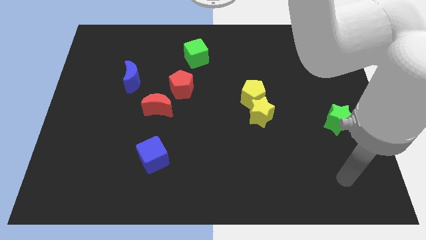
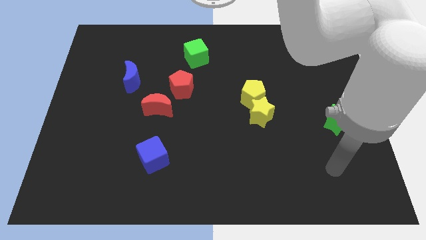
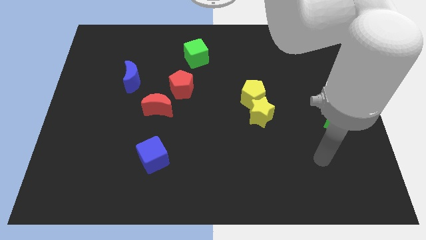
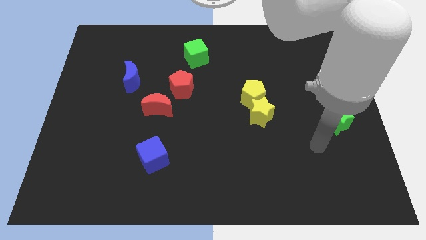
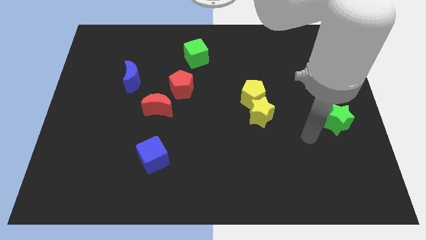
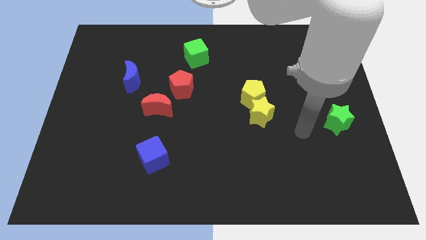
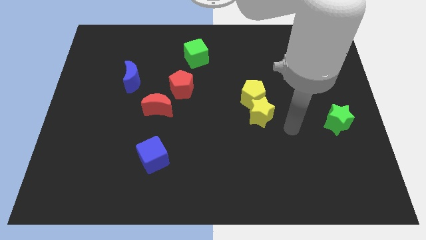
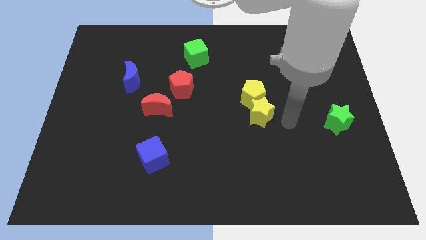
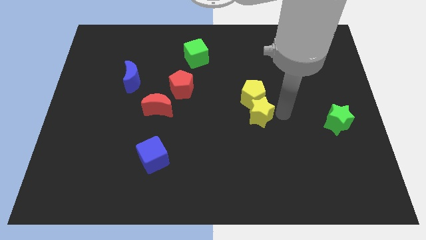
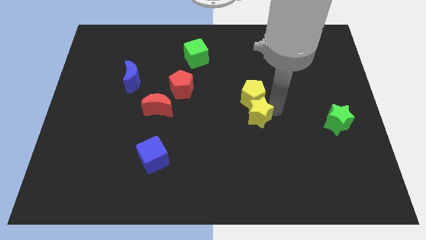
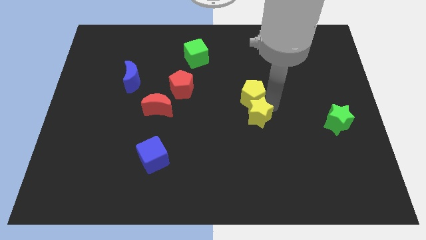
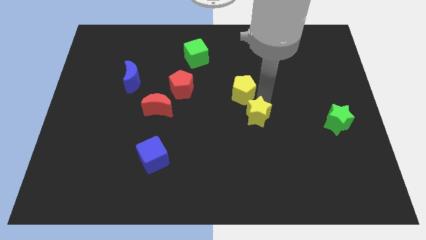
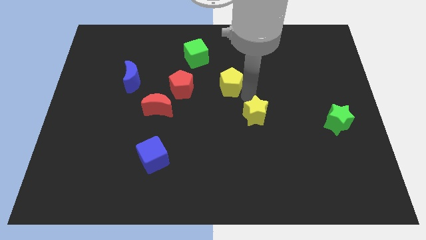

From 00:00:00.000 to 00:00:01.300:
move the yellow star away from the yellow pentagon

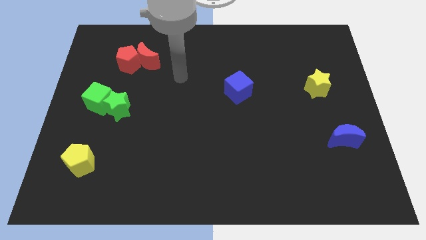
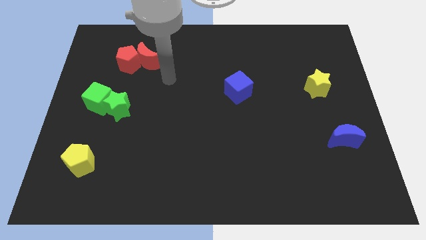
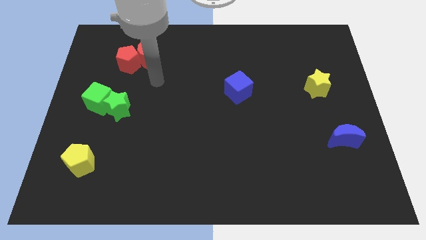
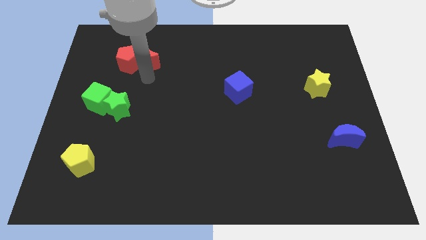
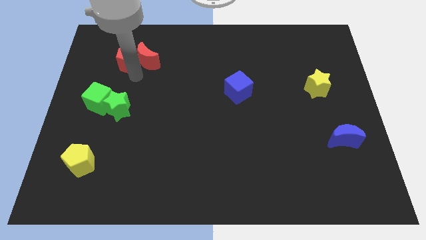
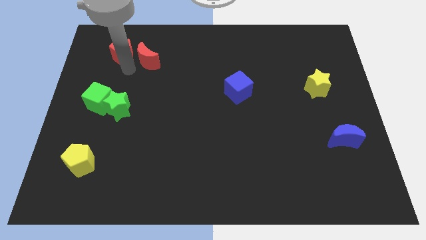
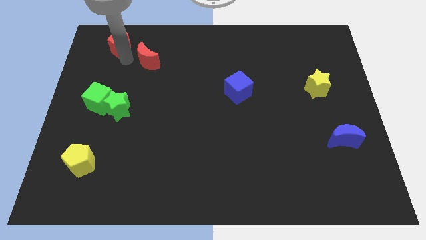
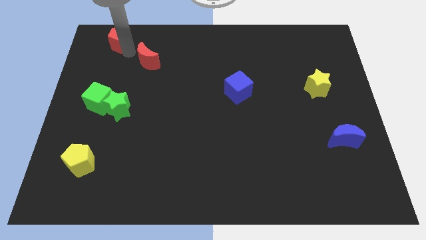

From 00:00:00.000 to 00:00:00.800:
pull the red moon apart from the red pentagon

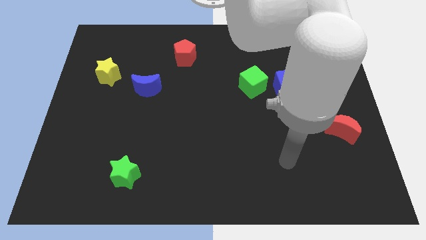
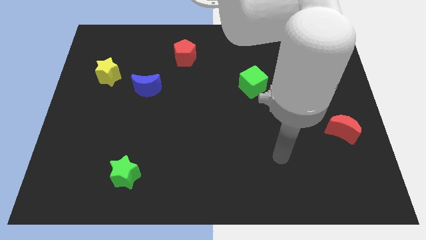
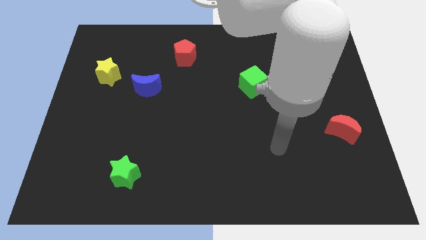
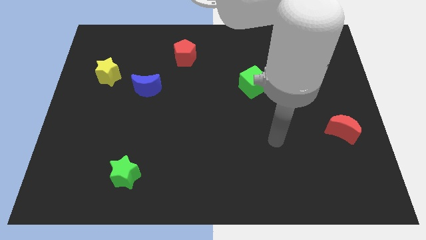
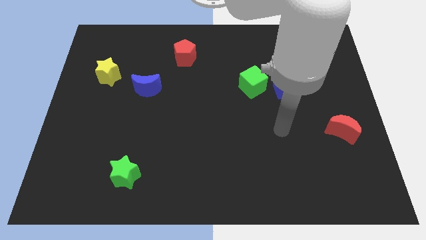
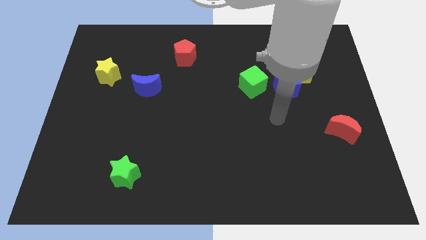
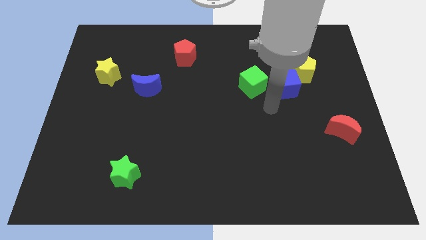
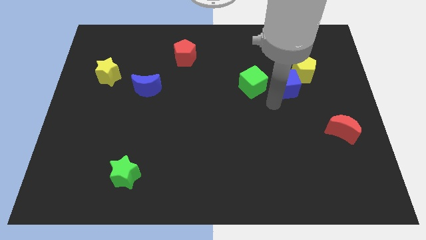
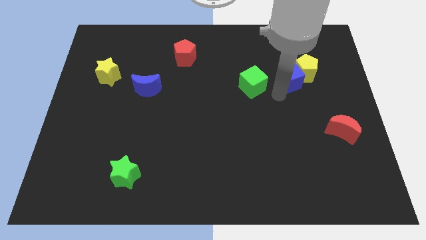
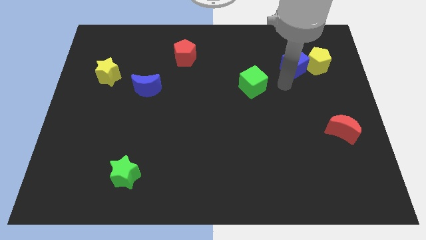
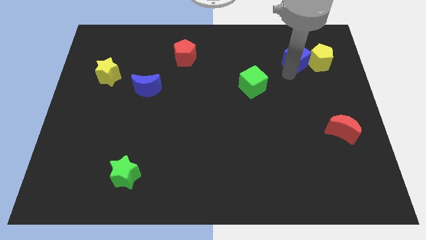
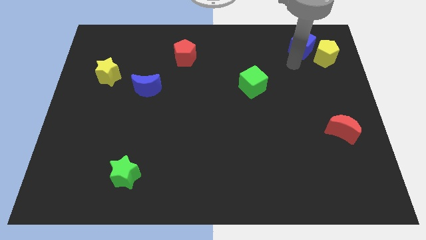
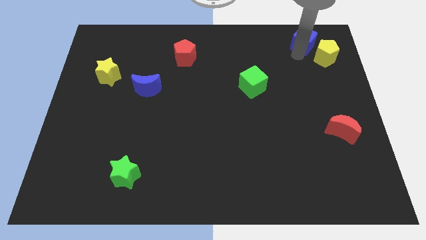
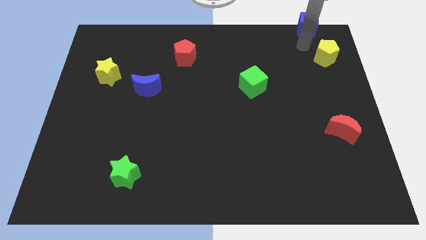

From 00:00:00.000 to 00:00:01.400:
pull the yellow pentagon apart from the blue cube

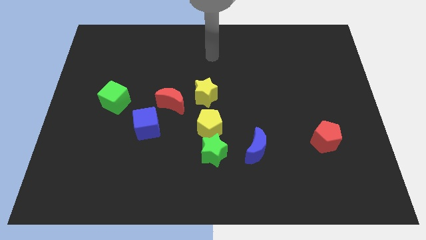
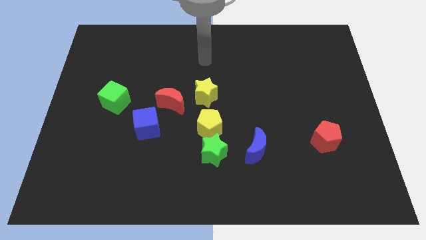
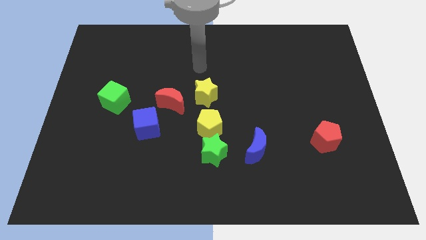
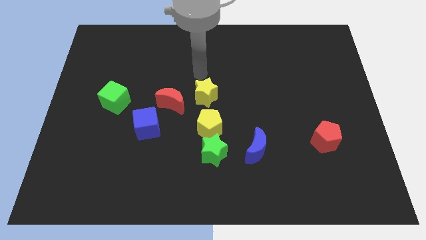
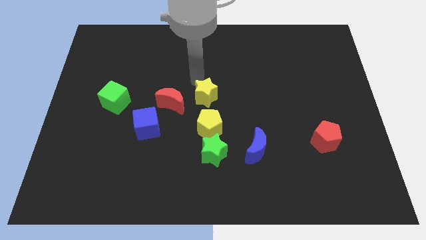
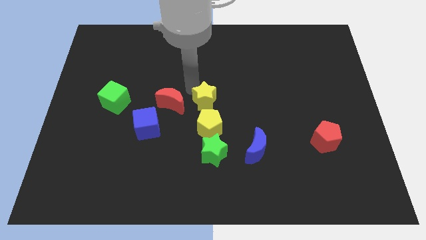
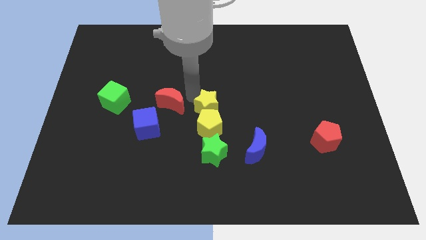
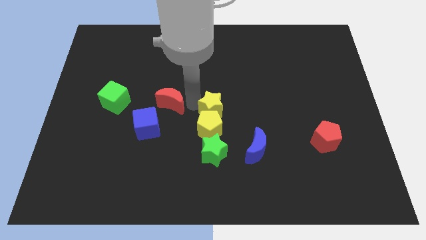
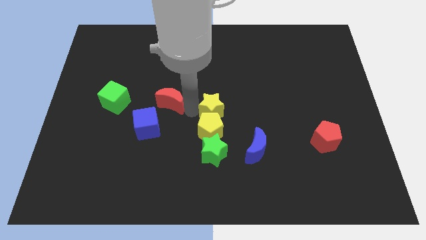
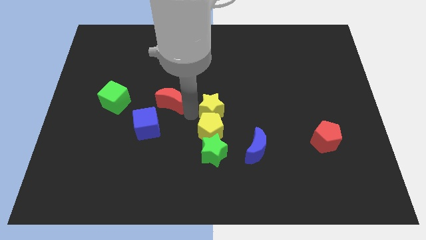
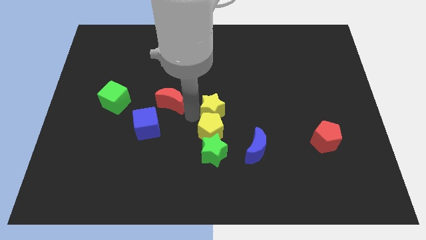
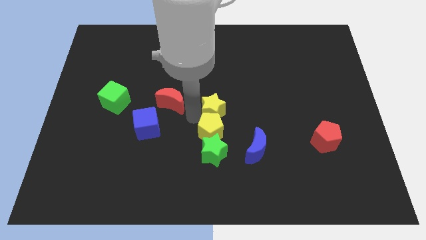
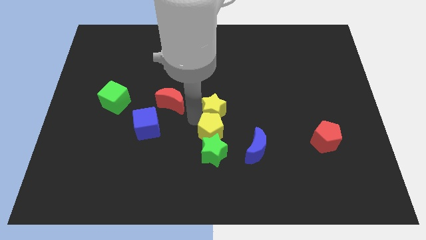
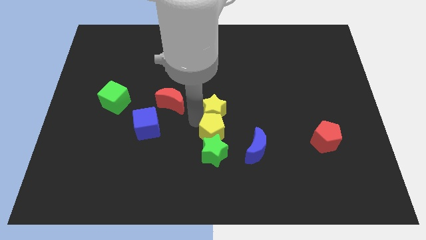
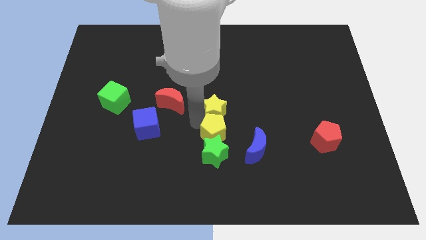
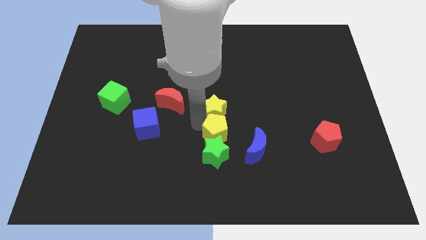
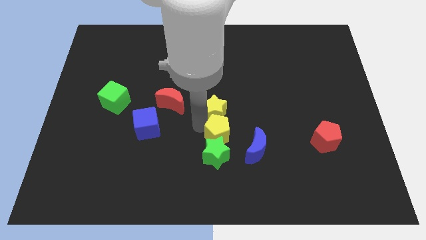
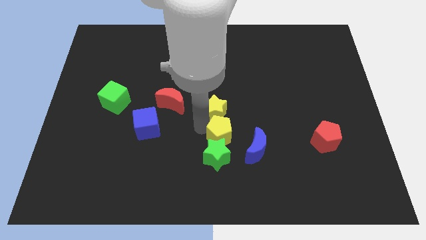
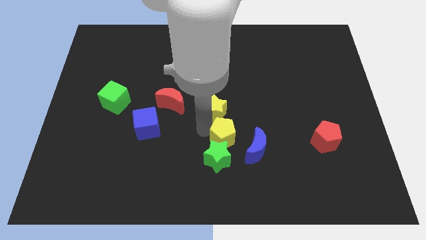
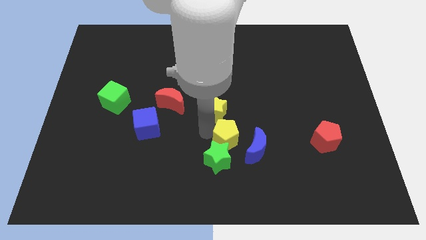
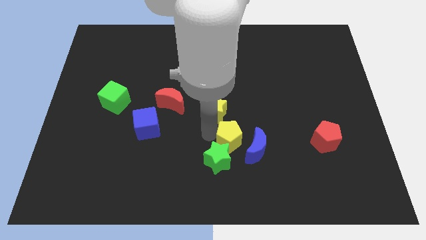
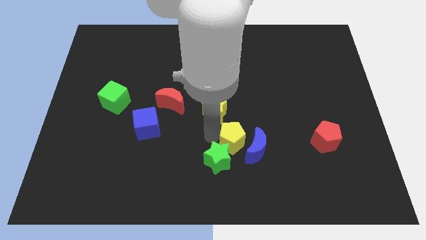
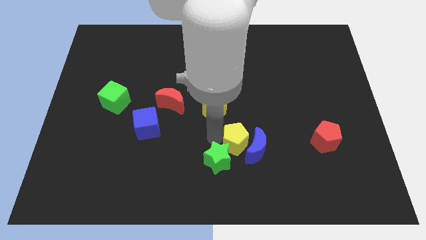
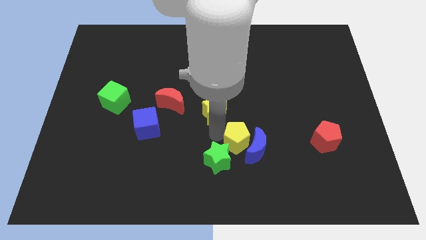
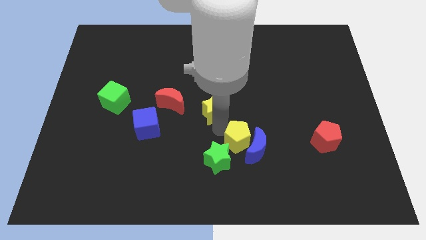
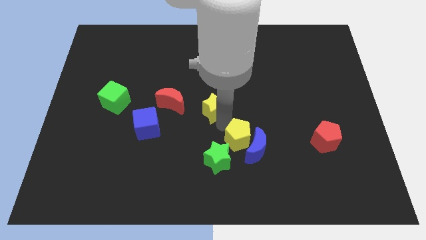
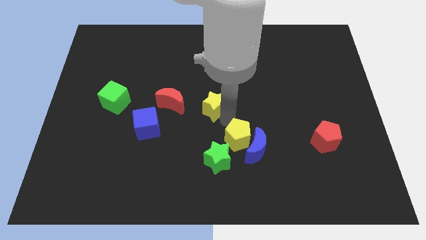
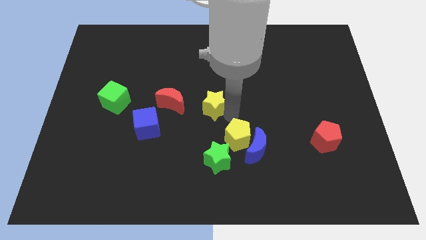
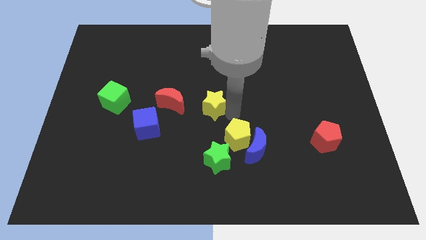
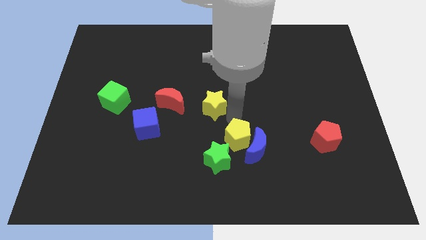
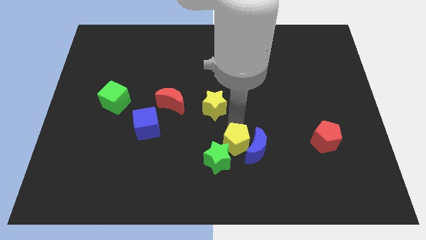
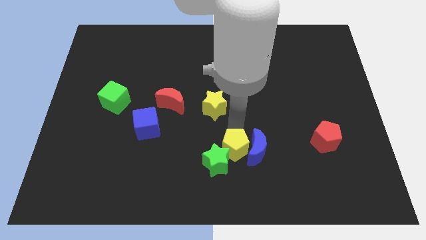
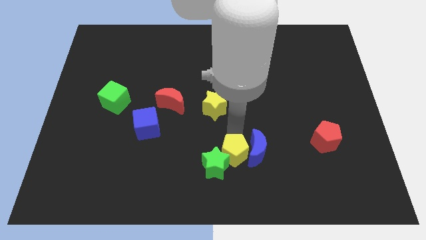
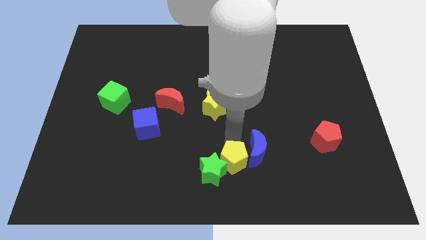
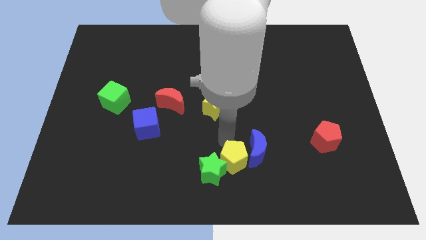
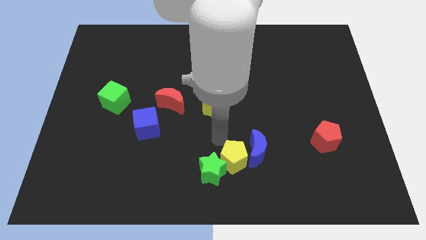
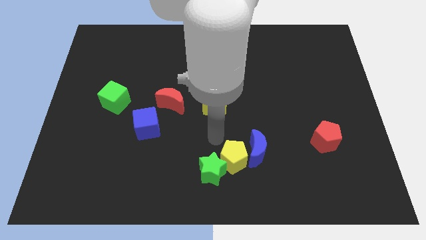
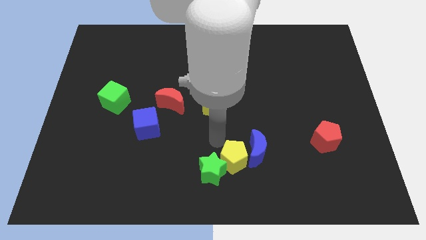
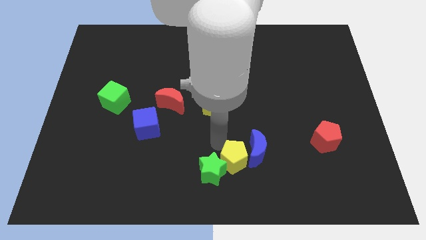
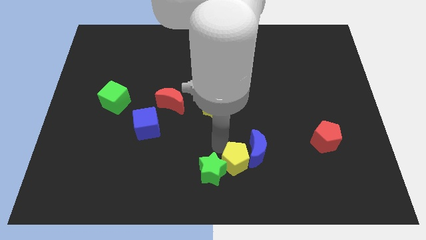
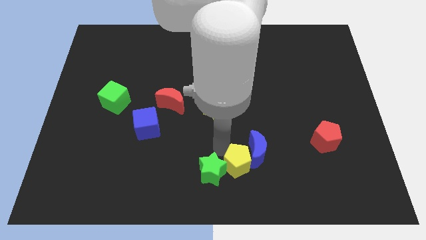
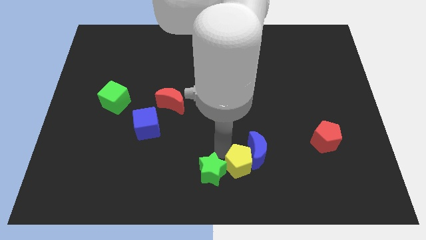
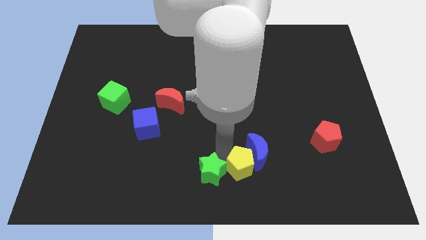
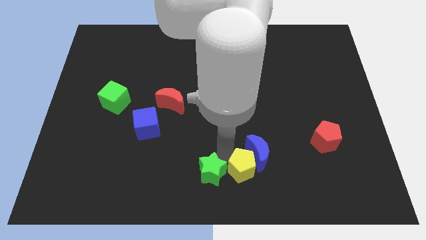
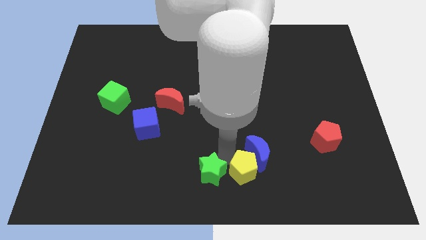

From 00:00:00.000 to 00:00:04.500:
separate the yellow pentagon from the green star and yellow star
